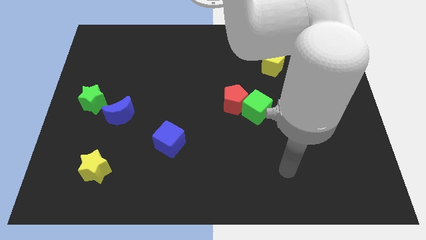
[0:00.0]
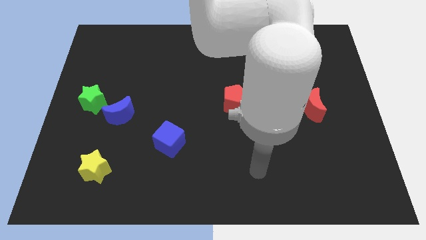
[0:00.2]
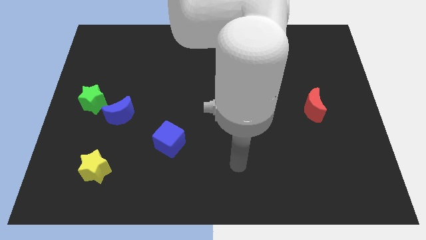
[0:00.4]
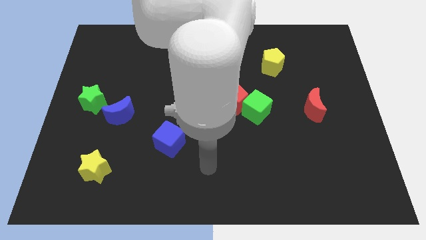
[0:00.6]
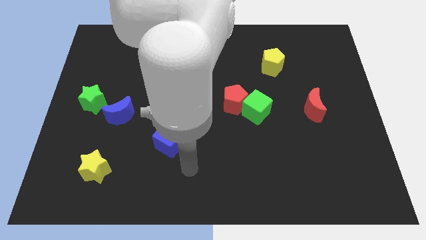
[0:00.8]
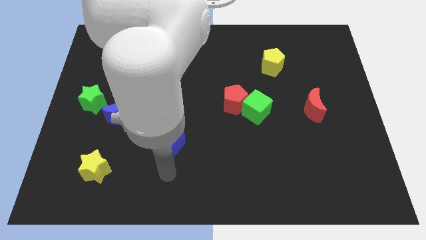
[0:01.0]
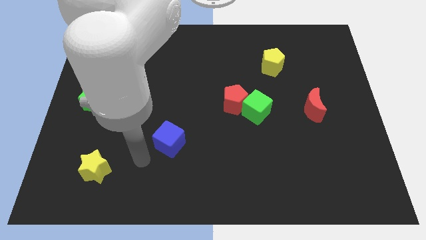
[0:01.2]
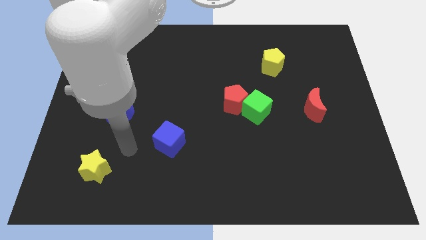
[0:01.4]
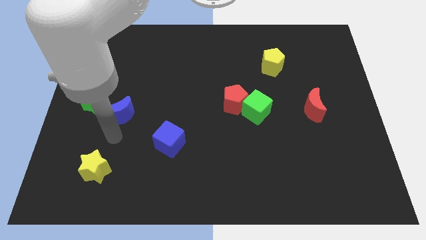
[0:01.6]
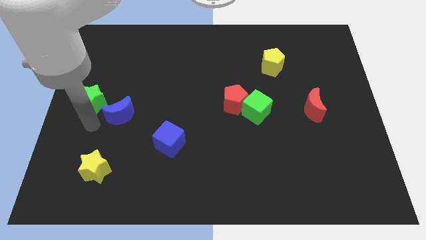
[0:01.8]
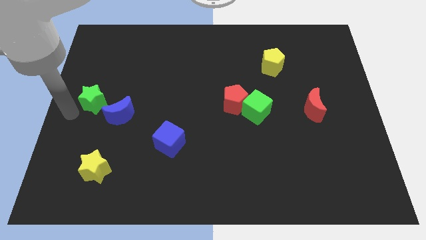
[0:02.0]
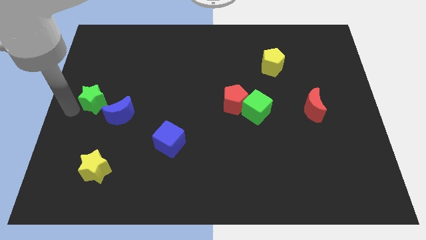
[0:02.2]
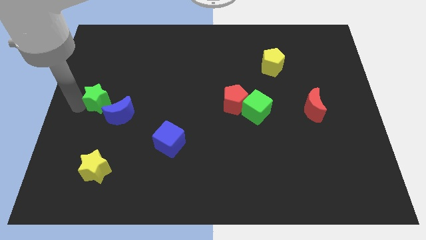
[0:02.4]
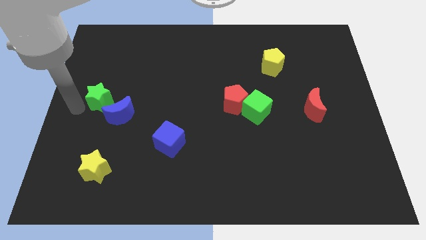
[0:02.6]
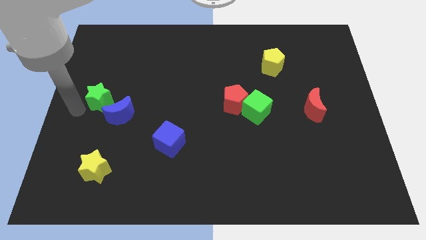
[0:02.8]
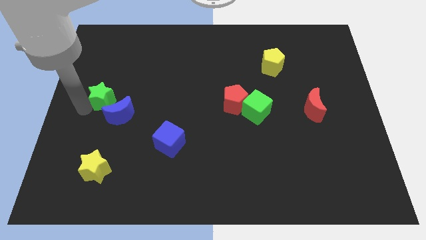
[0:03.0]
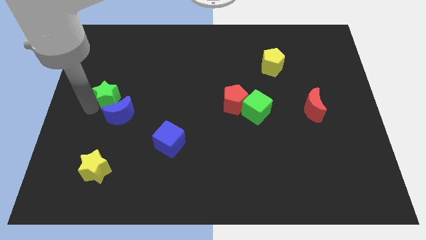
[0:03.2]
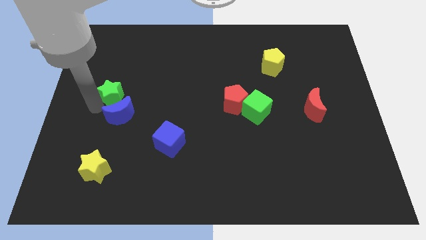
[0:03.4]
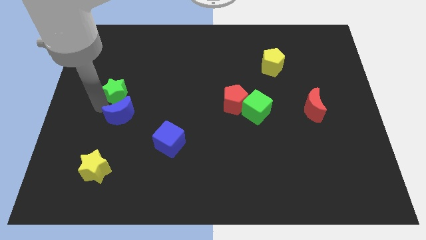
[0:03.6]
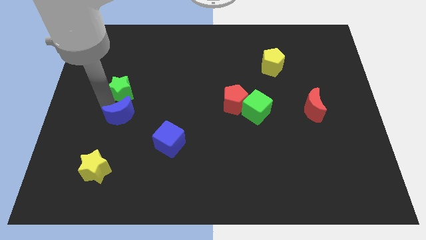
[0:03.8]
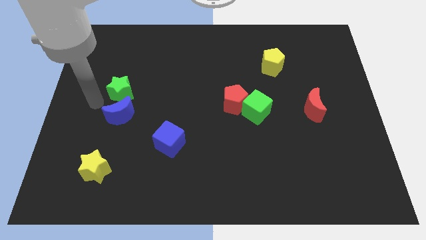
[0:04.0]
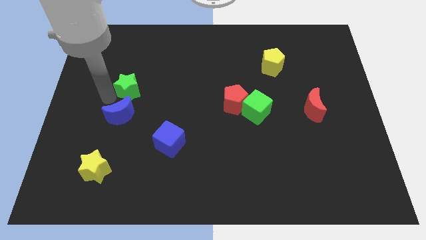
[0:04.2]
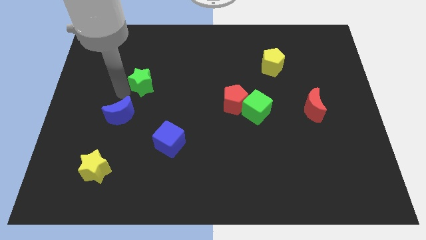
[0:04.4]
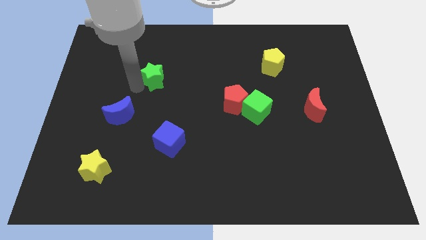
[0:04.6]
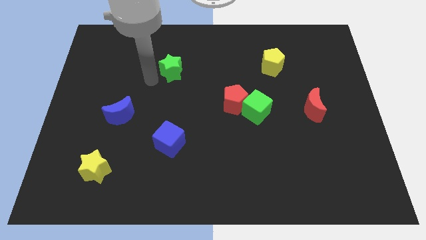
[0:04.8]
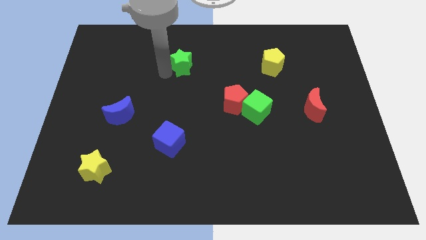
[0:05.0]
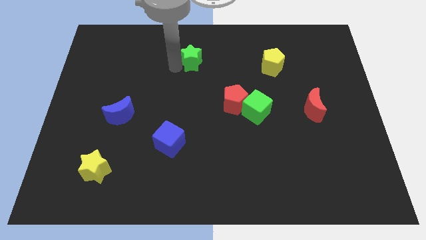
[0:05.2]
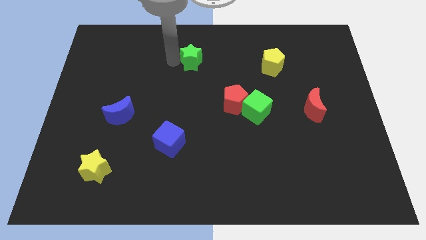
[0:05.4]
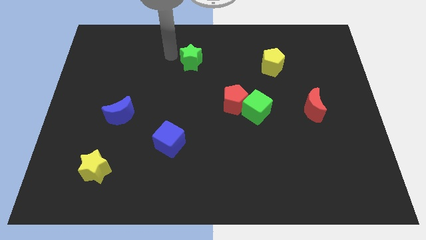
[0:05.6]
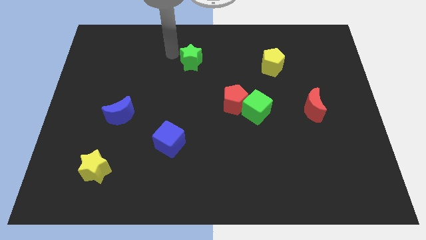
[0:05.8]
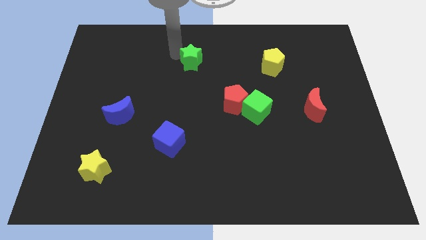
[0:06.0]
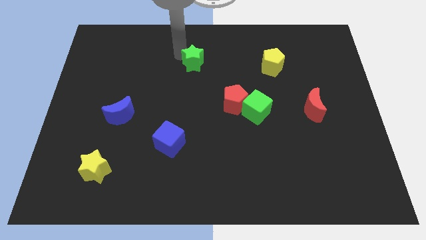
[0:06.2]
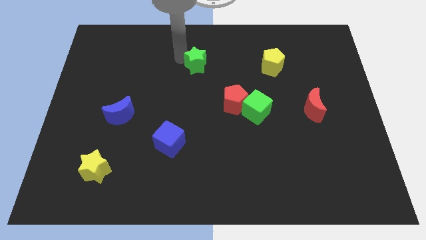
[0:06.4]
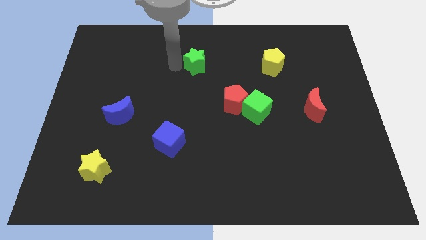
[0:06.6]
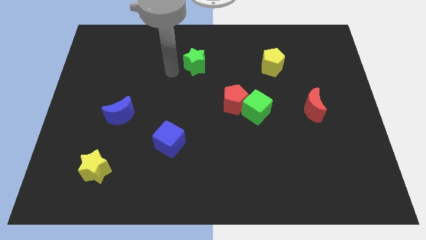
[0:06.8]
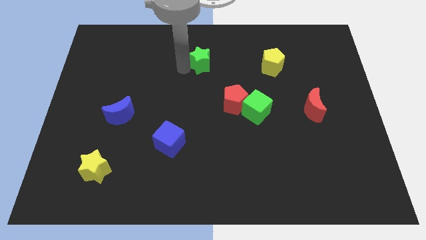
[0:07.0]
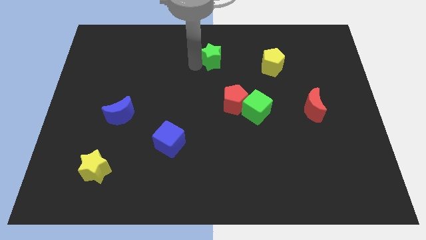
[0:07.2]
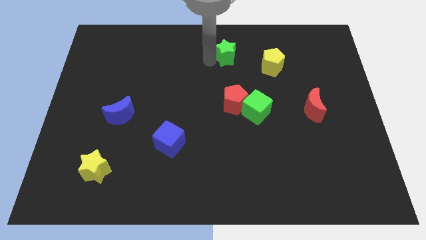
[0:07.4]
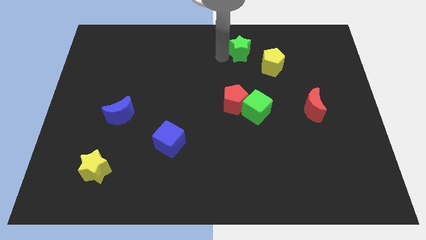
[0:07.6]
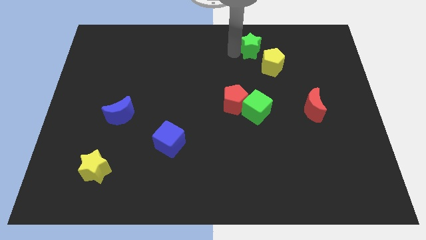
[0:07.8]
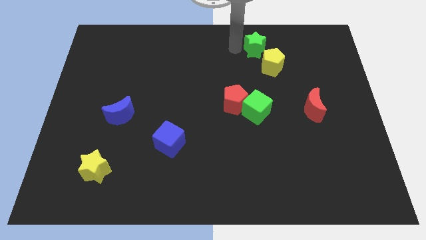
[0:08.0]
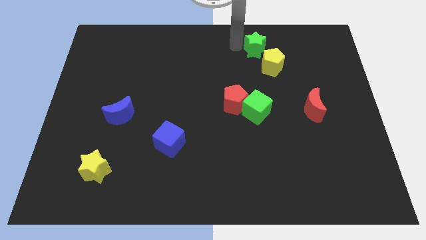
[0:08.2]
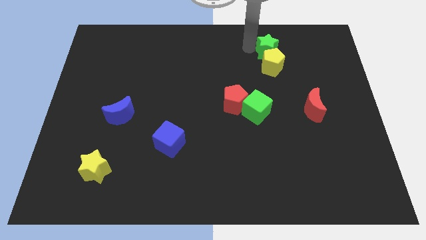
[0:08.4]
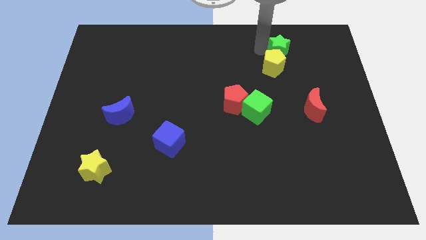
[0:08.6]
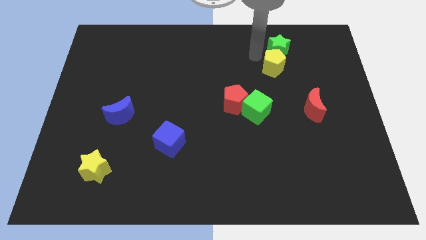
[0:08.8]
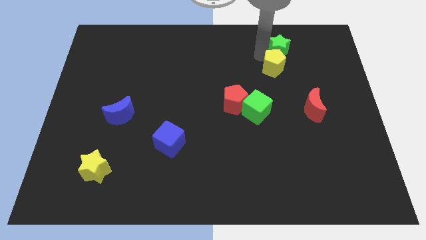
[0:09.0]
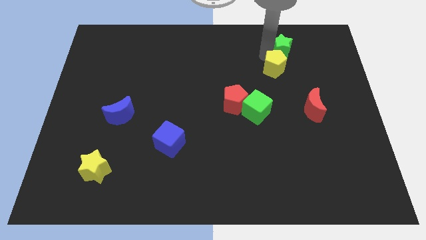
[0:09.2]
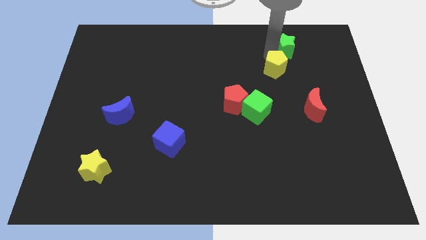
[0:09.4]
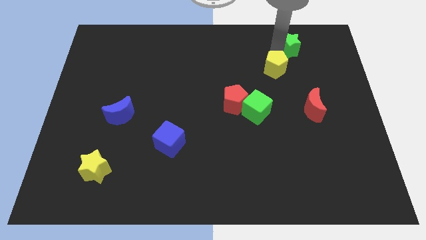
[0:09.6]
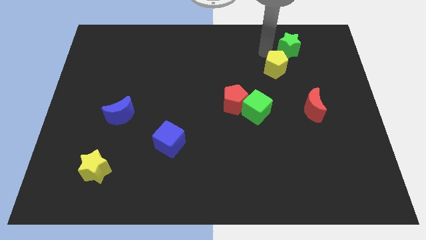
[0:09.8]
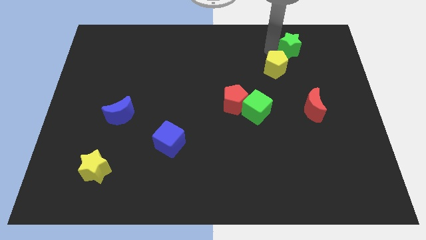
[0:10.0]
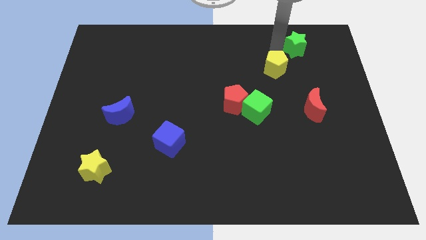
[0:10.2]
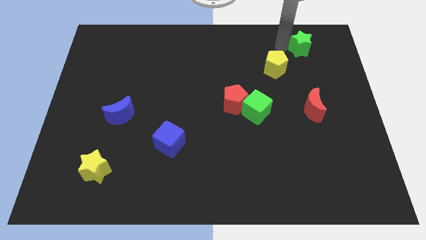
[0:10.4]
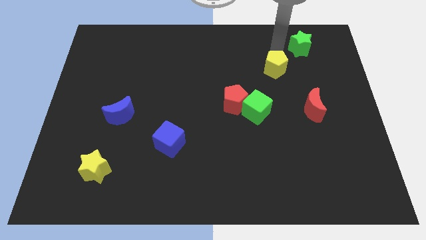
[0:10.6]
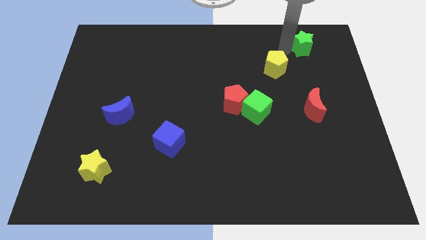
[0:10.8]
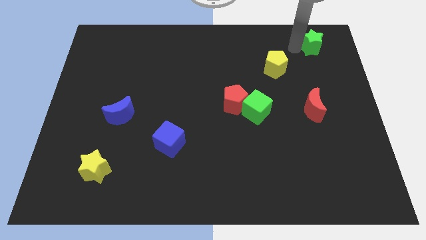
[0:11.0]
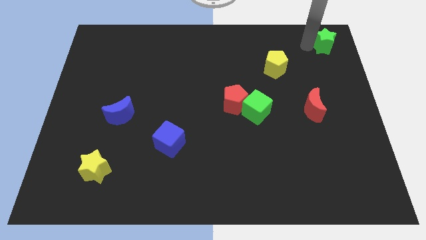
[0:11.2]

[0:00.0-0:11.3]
move the green star to the top right

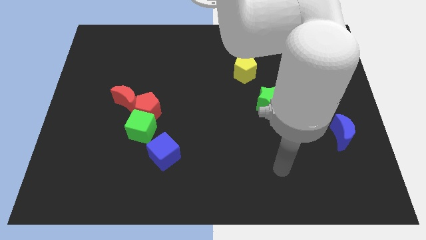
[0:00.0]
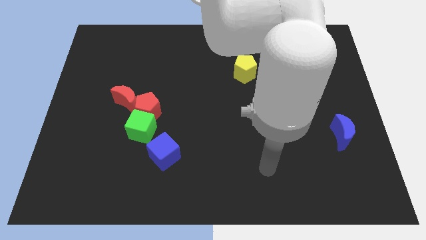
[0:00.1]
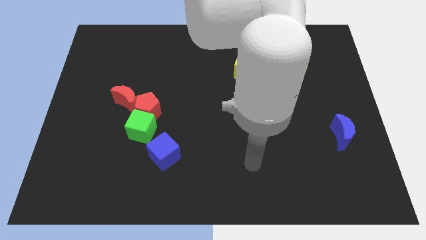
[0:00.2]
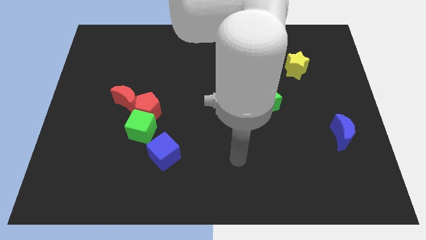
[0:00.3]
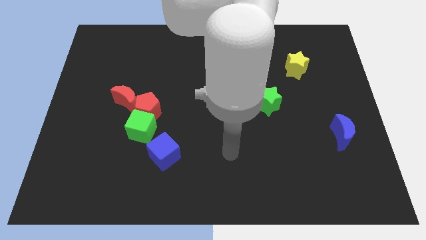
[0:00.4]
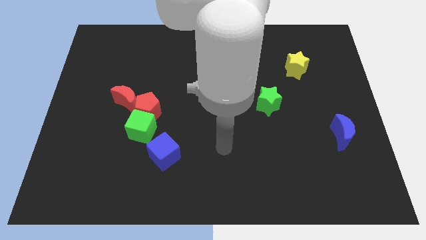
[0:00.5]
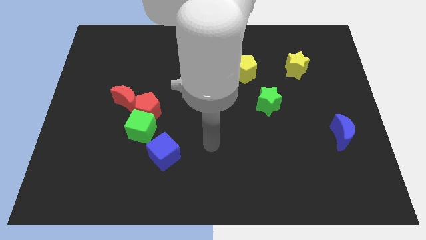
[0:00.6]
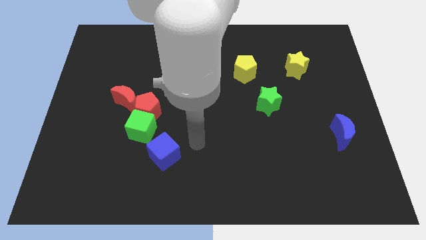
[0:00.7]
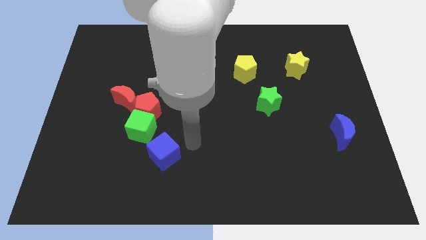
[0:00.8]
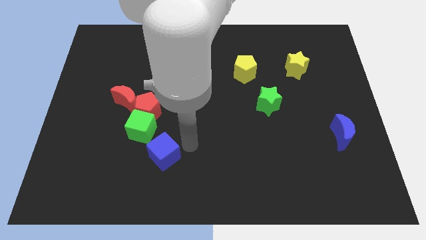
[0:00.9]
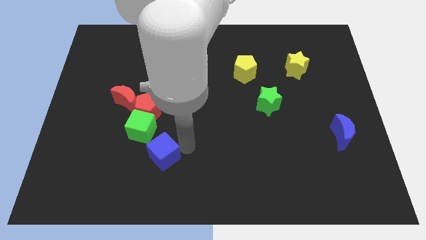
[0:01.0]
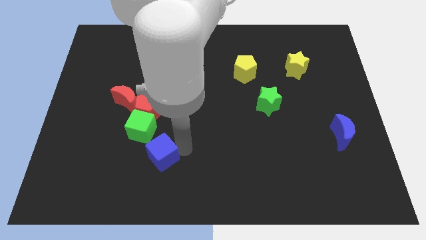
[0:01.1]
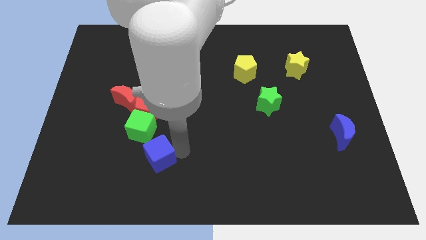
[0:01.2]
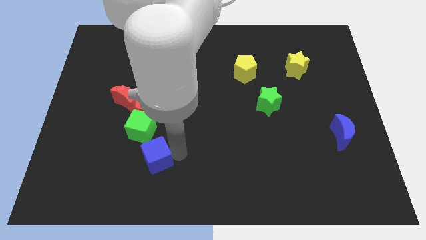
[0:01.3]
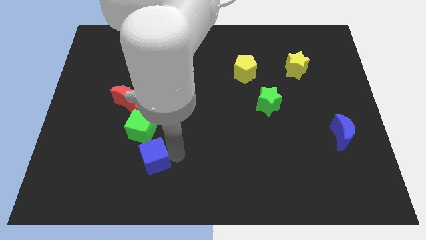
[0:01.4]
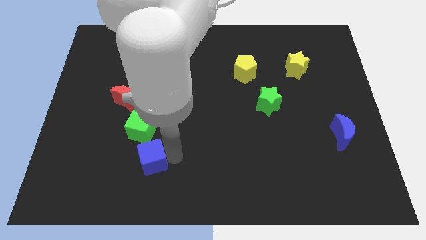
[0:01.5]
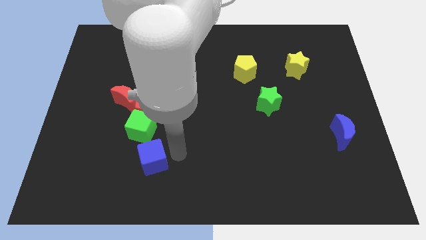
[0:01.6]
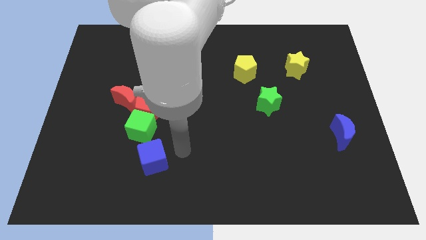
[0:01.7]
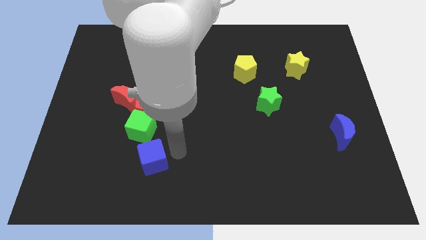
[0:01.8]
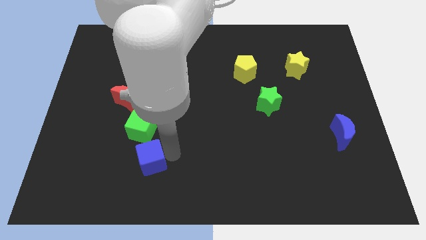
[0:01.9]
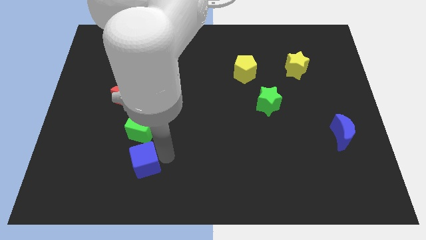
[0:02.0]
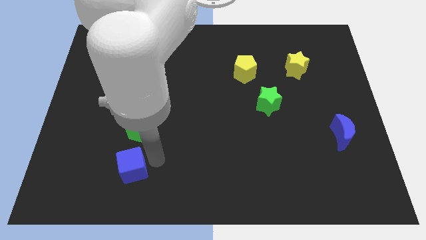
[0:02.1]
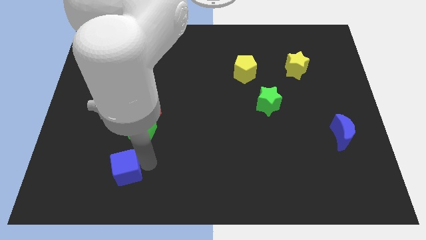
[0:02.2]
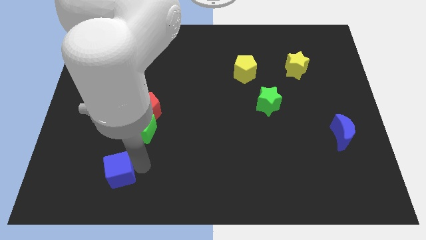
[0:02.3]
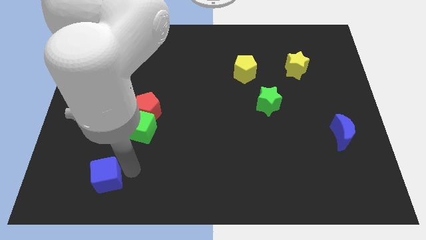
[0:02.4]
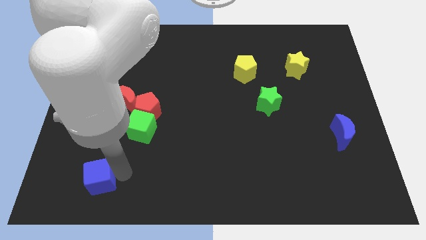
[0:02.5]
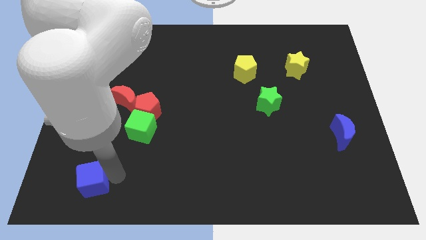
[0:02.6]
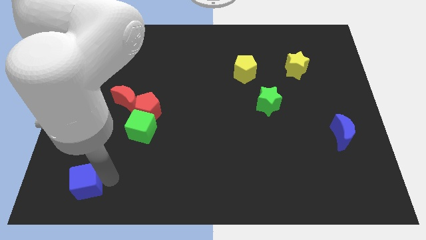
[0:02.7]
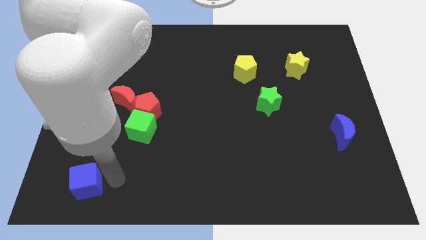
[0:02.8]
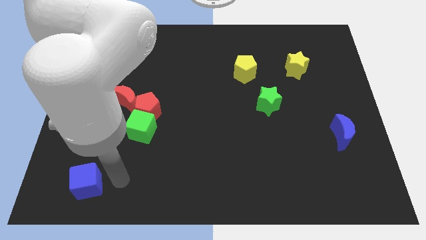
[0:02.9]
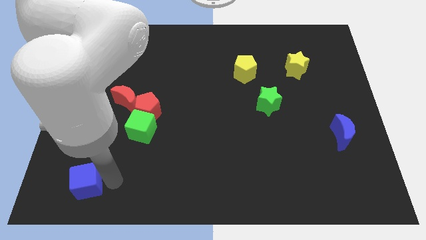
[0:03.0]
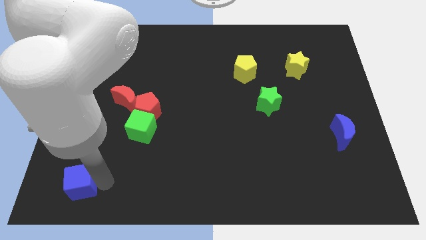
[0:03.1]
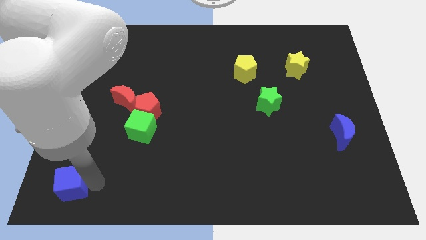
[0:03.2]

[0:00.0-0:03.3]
put the blue cube to the bottom left corner
